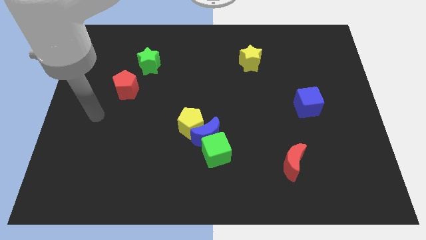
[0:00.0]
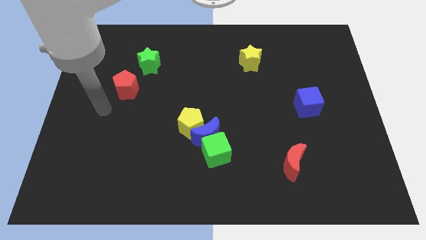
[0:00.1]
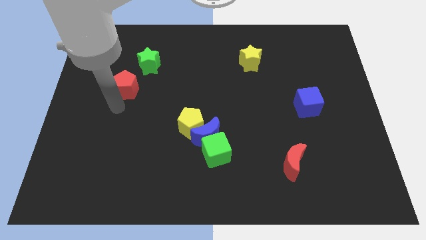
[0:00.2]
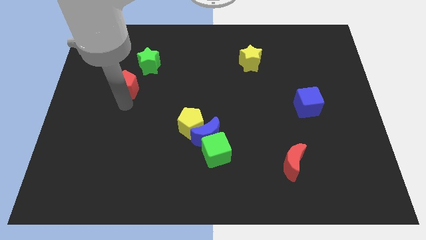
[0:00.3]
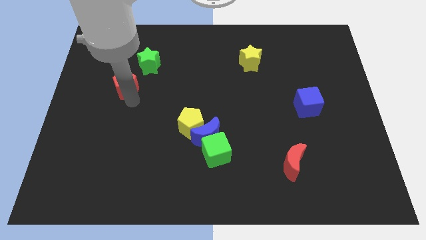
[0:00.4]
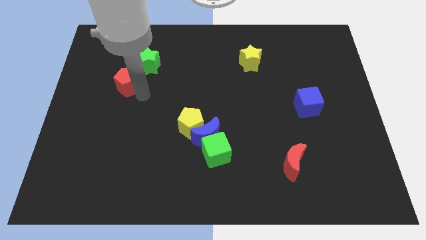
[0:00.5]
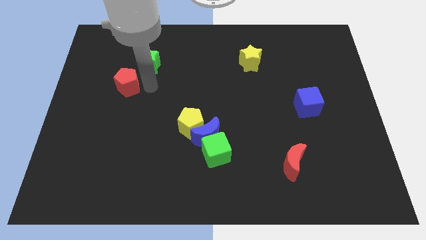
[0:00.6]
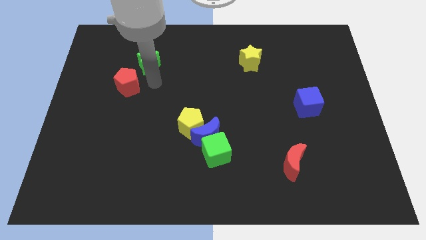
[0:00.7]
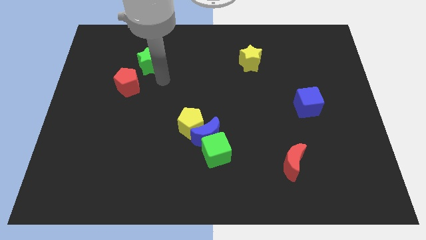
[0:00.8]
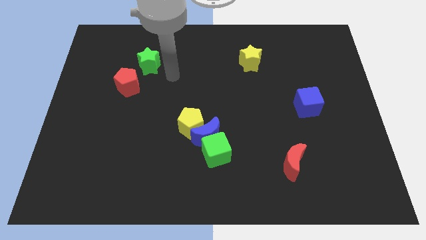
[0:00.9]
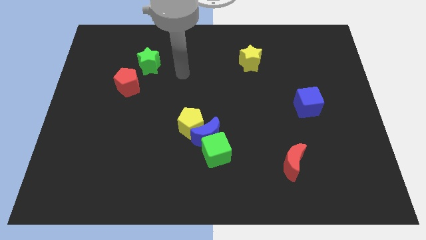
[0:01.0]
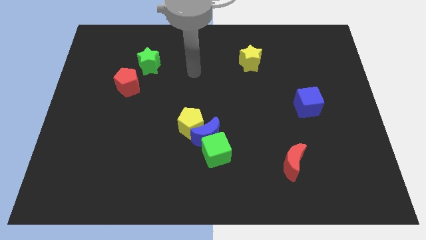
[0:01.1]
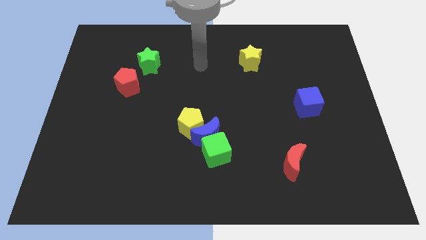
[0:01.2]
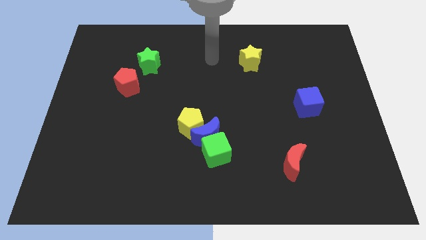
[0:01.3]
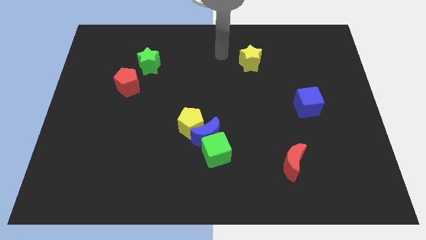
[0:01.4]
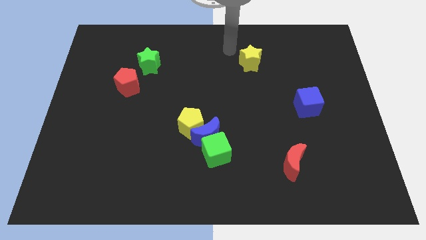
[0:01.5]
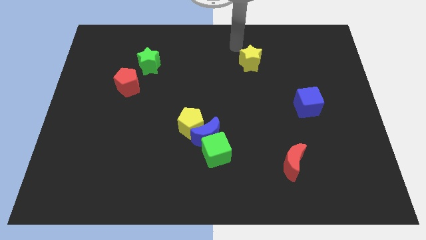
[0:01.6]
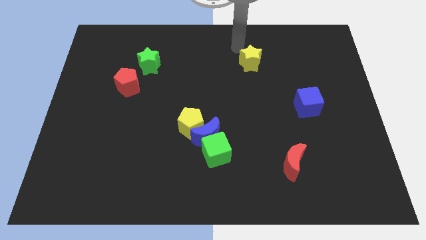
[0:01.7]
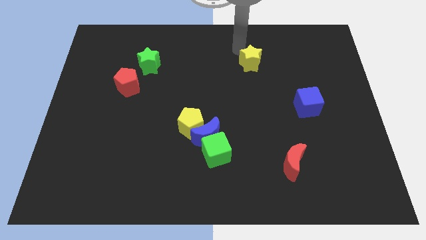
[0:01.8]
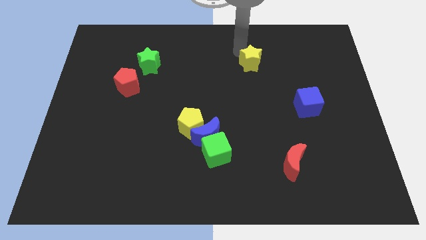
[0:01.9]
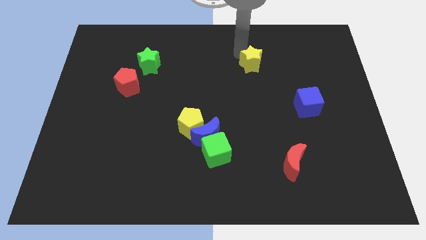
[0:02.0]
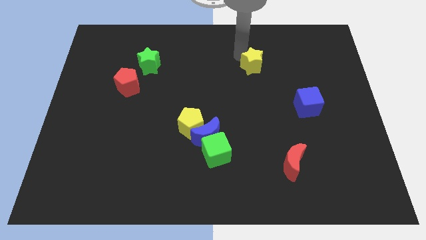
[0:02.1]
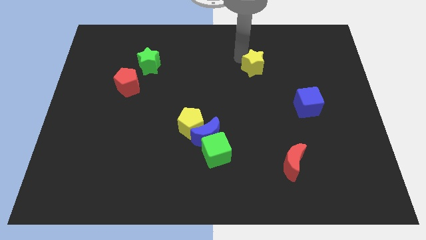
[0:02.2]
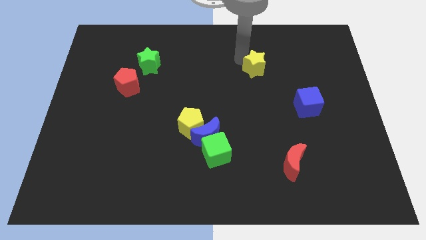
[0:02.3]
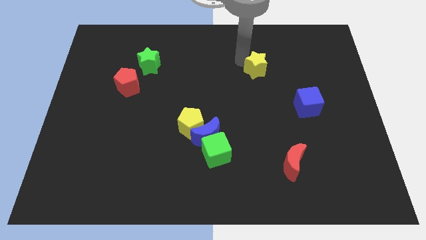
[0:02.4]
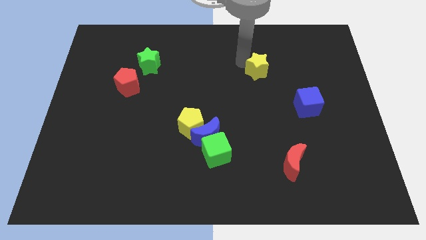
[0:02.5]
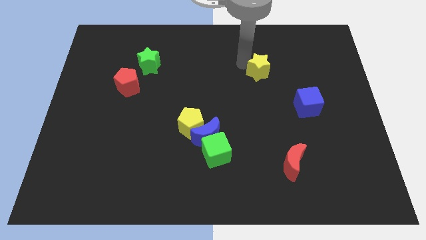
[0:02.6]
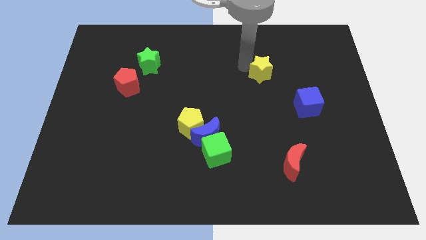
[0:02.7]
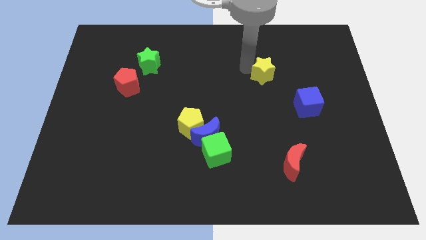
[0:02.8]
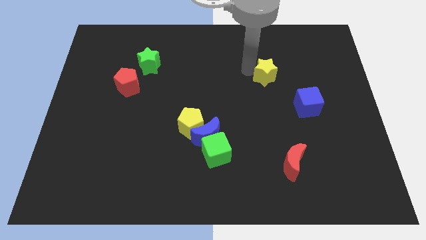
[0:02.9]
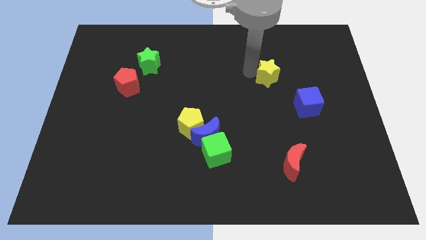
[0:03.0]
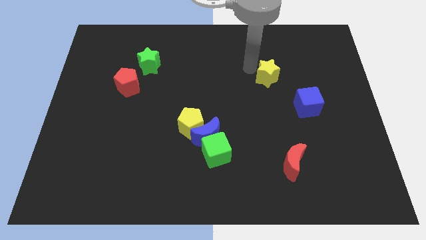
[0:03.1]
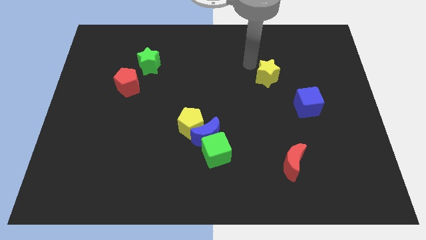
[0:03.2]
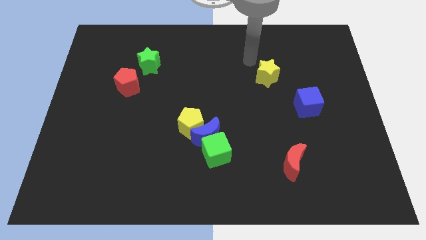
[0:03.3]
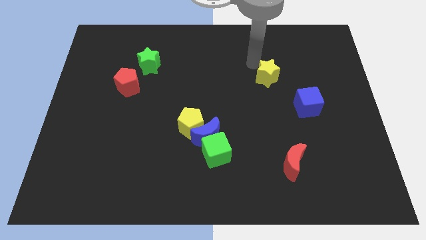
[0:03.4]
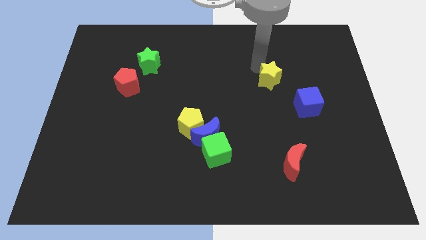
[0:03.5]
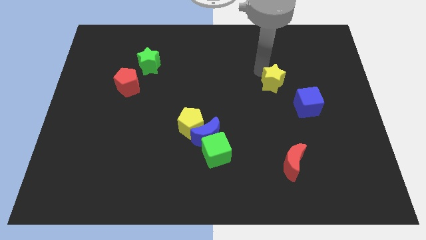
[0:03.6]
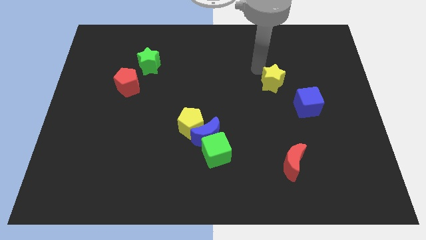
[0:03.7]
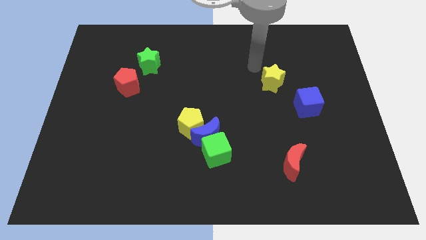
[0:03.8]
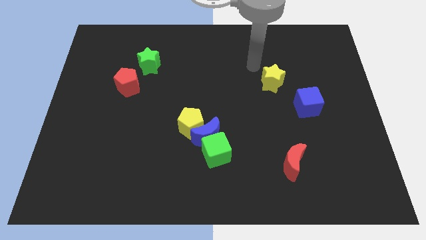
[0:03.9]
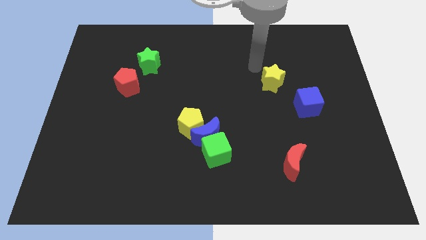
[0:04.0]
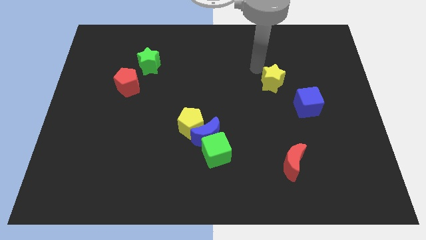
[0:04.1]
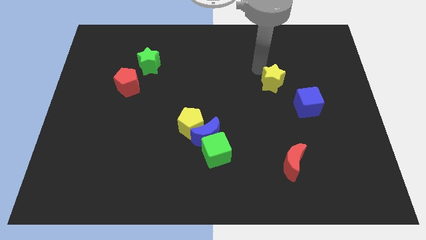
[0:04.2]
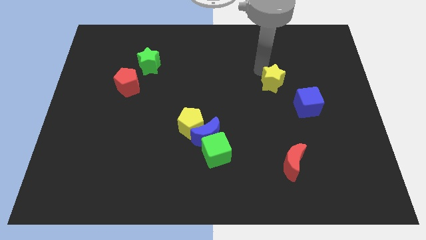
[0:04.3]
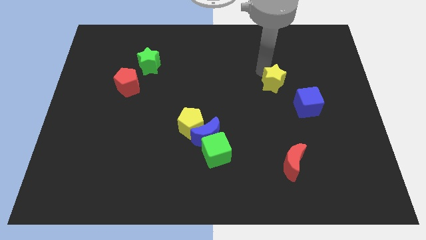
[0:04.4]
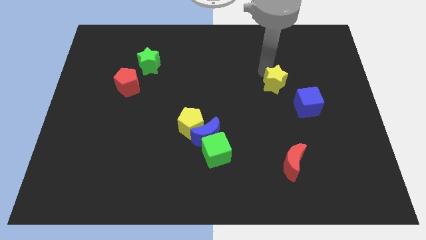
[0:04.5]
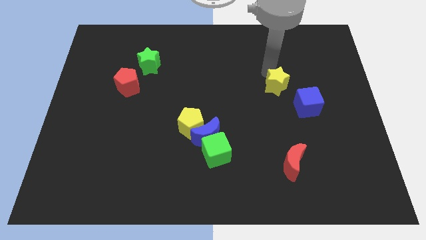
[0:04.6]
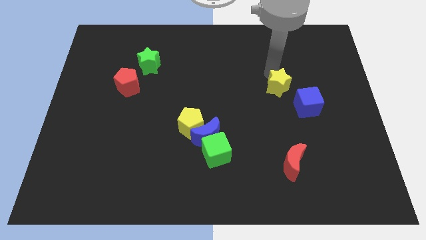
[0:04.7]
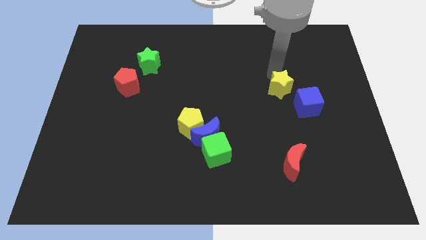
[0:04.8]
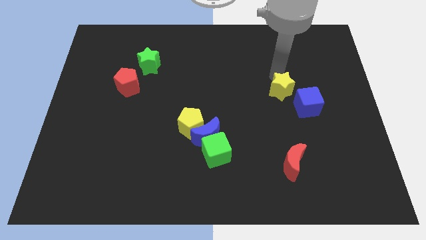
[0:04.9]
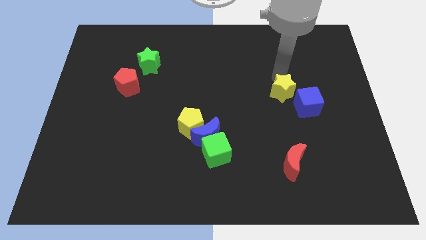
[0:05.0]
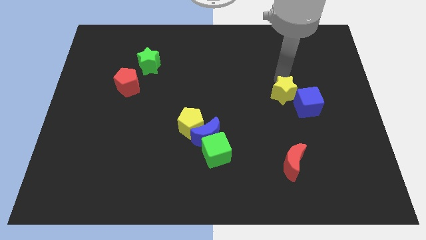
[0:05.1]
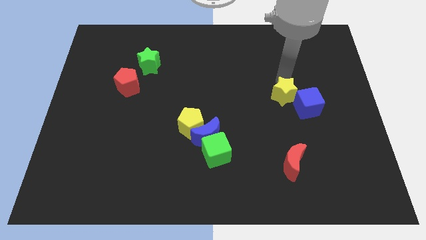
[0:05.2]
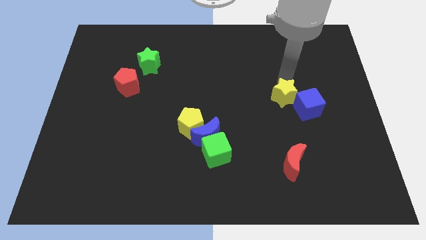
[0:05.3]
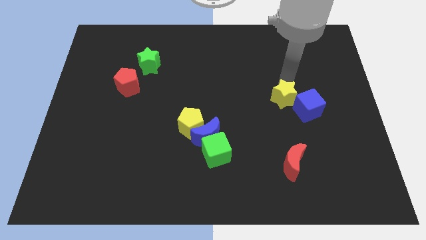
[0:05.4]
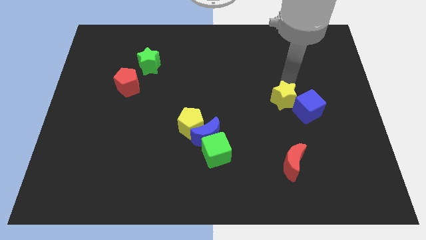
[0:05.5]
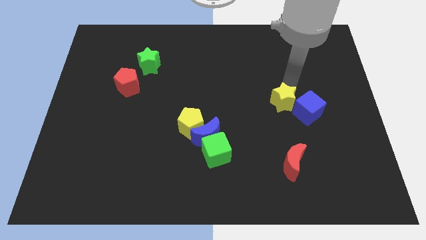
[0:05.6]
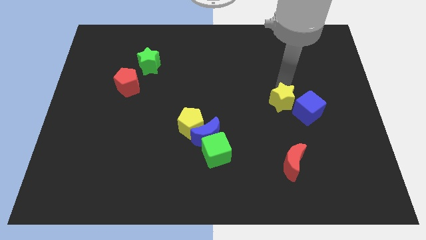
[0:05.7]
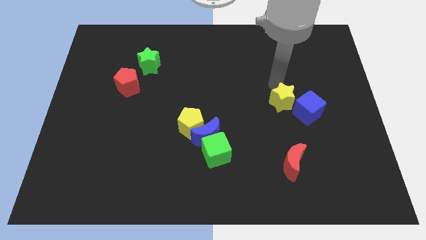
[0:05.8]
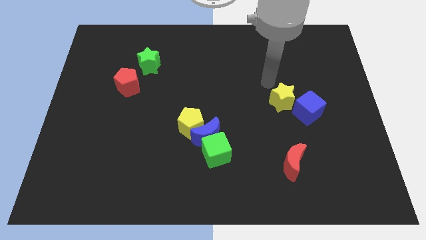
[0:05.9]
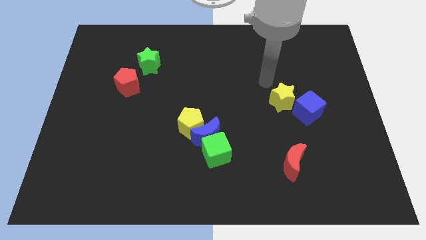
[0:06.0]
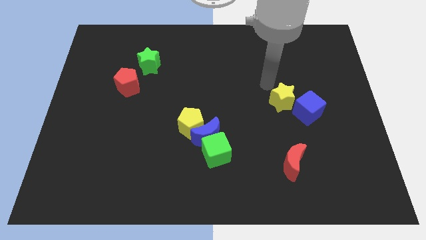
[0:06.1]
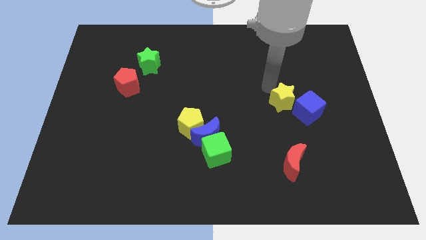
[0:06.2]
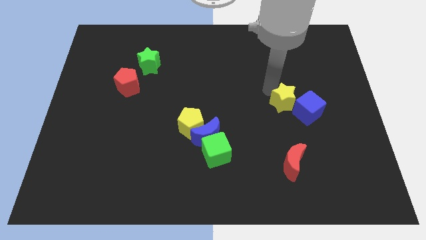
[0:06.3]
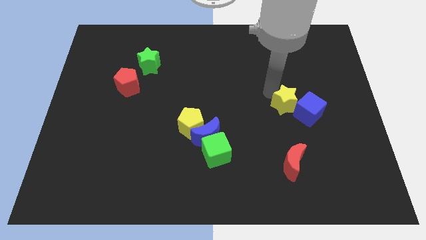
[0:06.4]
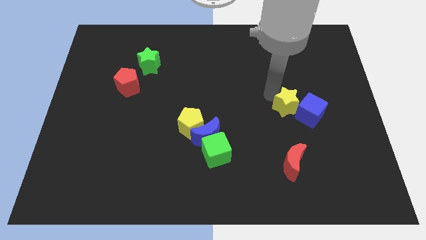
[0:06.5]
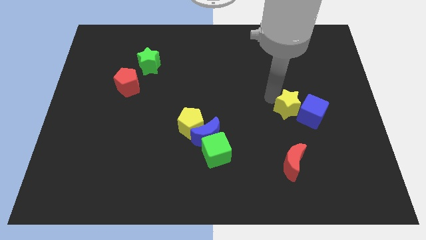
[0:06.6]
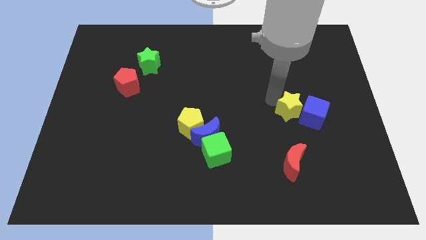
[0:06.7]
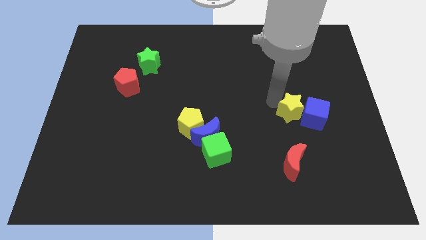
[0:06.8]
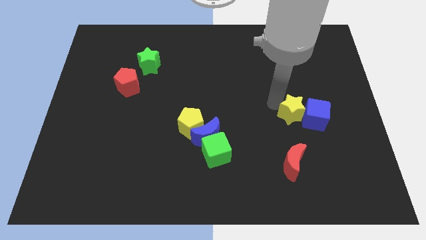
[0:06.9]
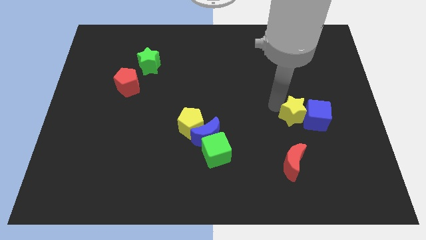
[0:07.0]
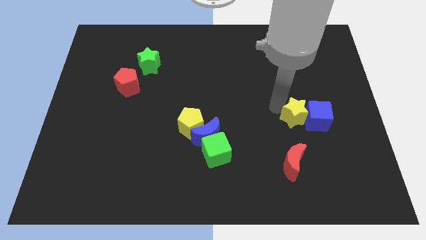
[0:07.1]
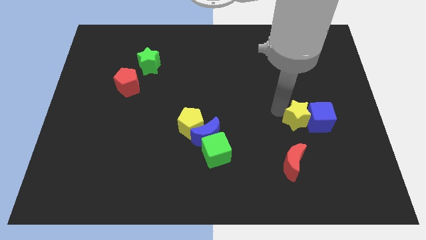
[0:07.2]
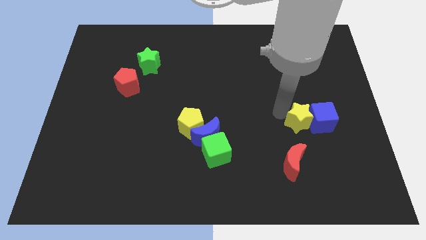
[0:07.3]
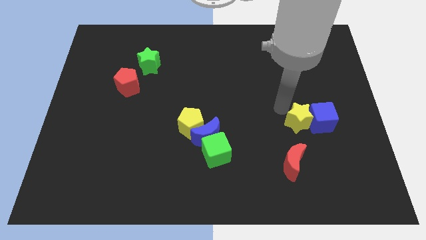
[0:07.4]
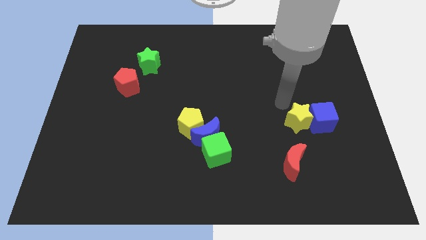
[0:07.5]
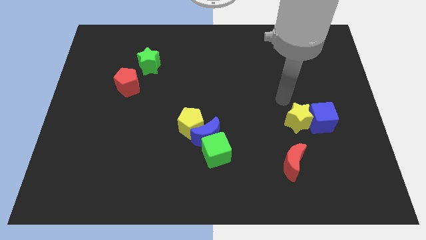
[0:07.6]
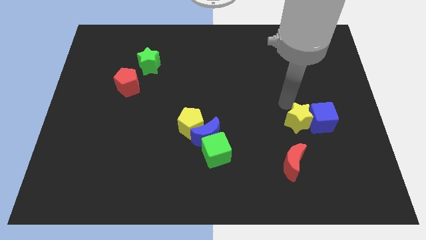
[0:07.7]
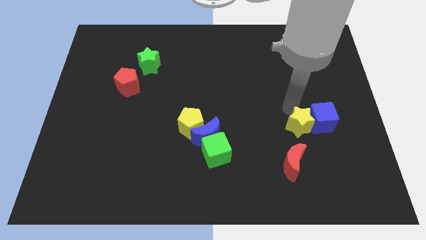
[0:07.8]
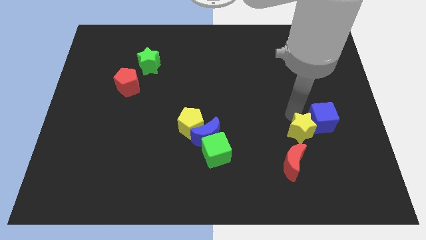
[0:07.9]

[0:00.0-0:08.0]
move the yellow star to the top right of the red moon
